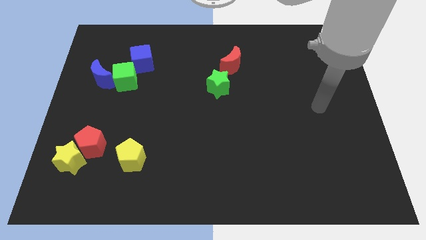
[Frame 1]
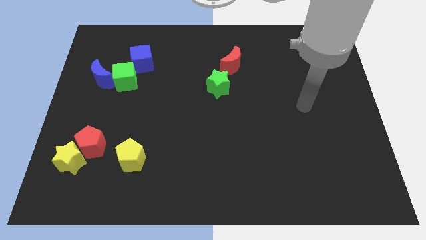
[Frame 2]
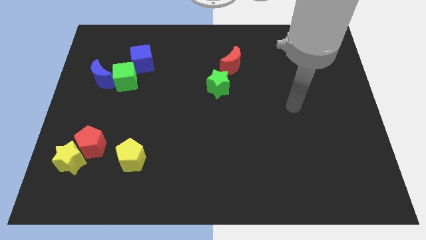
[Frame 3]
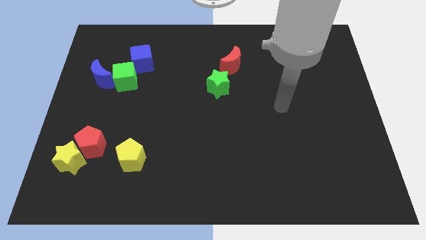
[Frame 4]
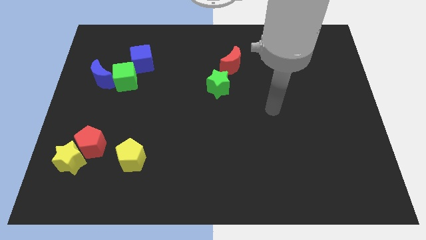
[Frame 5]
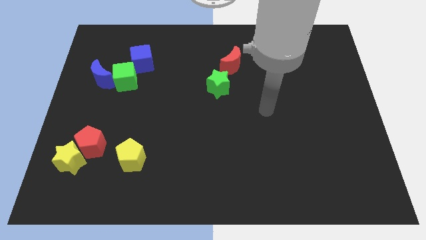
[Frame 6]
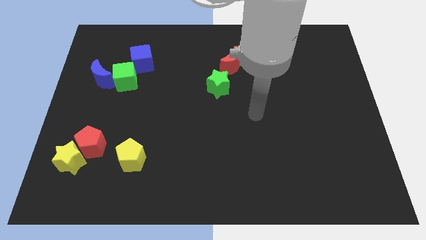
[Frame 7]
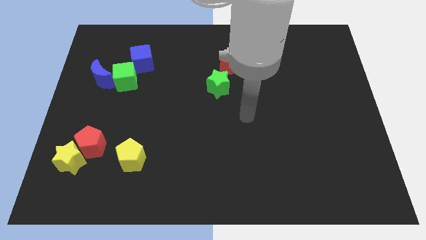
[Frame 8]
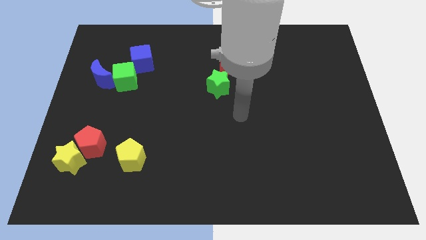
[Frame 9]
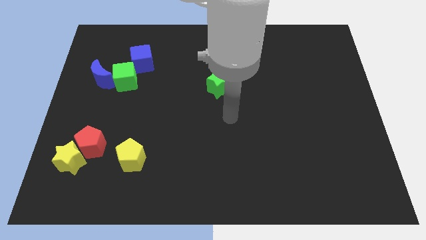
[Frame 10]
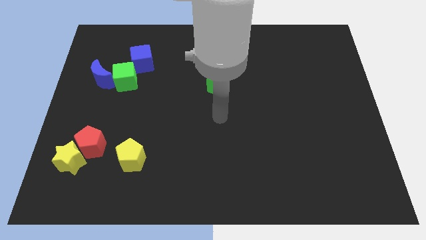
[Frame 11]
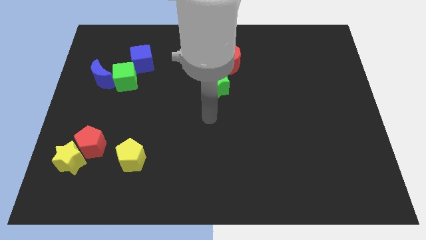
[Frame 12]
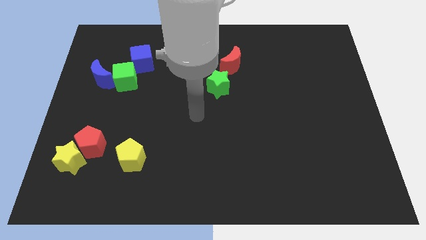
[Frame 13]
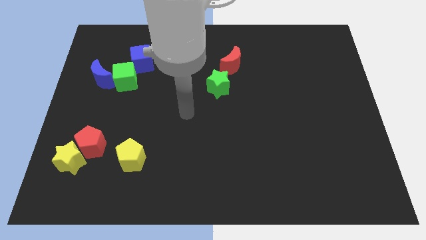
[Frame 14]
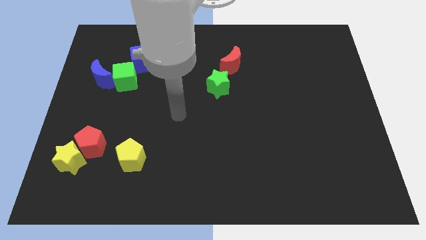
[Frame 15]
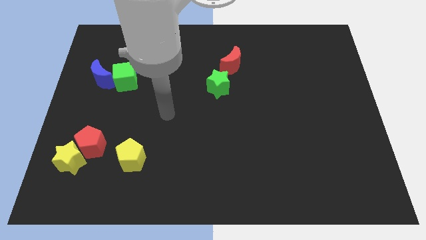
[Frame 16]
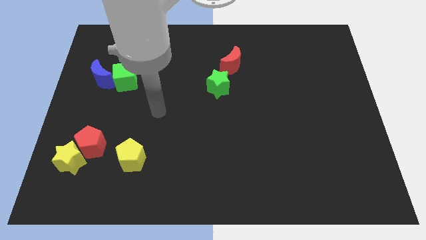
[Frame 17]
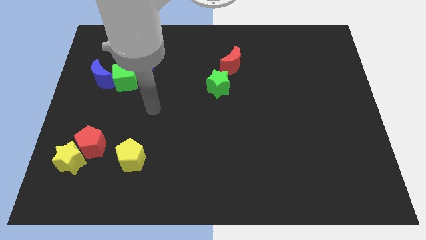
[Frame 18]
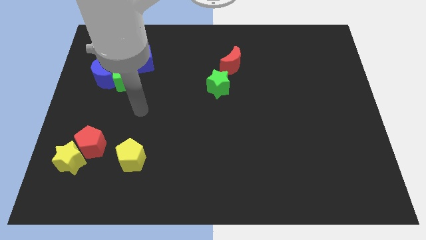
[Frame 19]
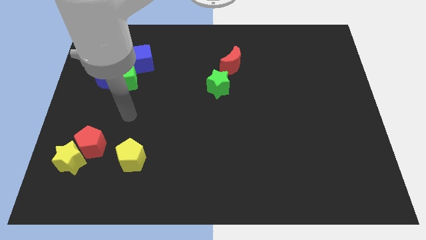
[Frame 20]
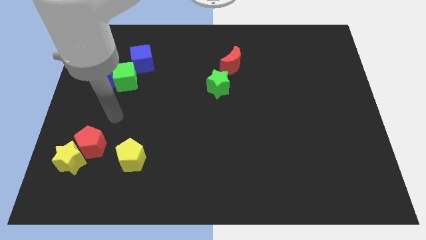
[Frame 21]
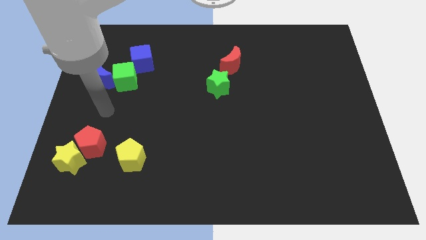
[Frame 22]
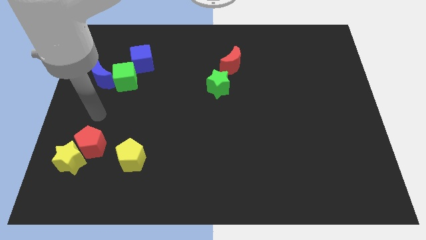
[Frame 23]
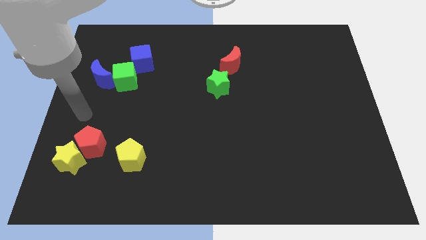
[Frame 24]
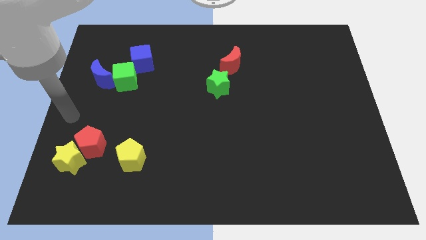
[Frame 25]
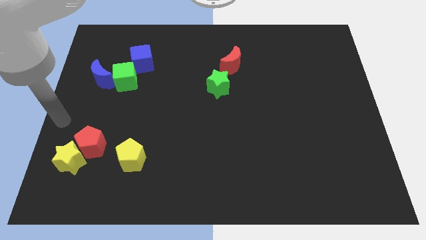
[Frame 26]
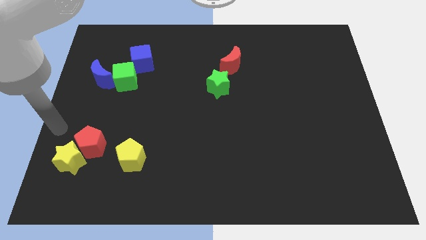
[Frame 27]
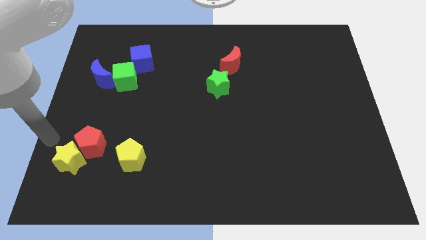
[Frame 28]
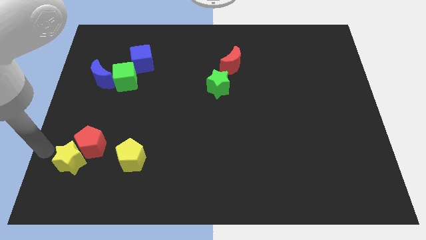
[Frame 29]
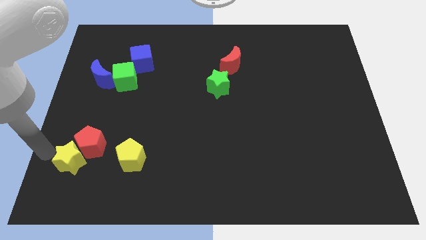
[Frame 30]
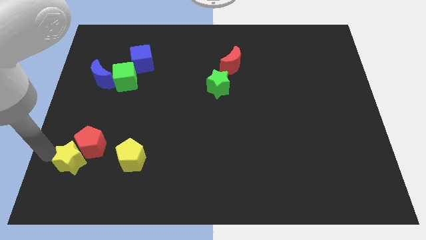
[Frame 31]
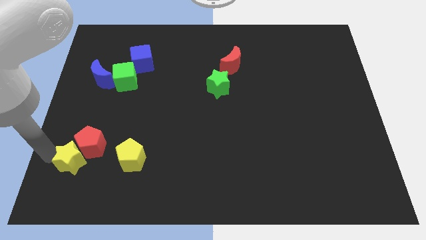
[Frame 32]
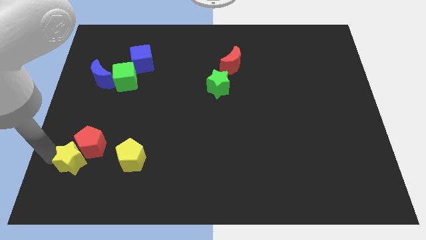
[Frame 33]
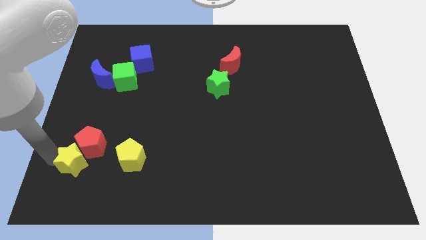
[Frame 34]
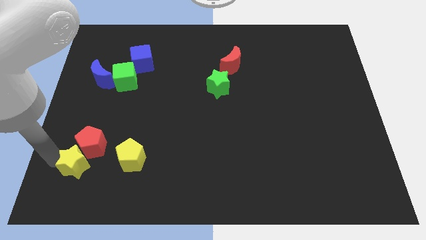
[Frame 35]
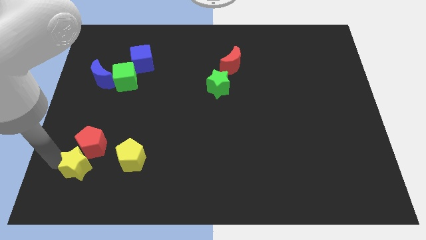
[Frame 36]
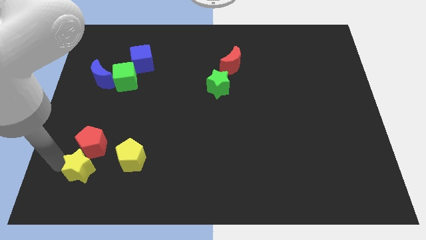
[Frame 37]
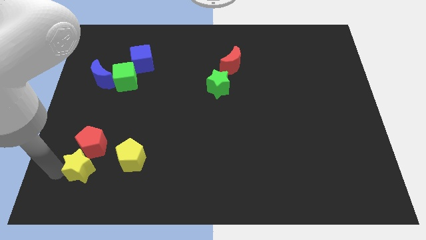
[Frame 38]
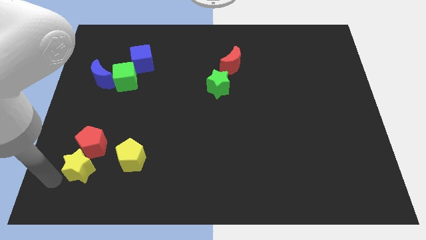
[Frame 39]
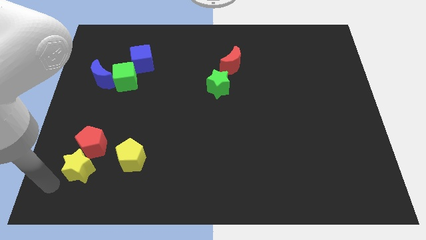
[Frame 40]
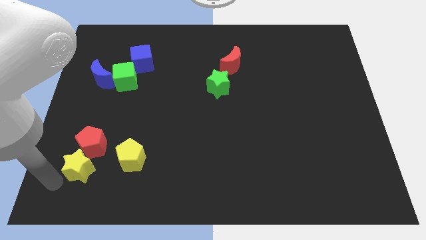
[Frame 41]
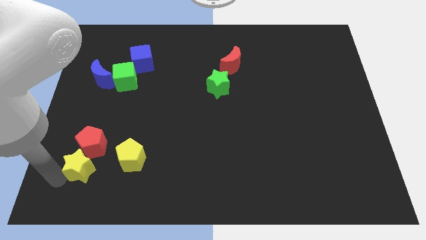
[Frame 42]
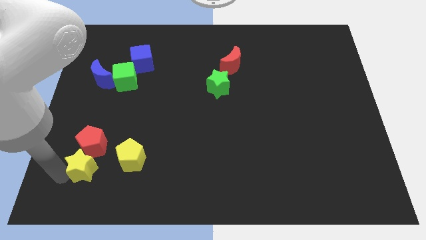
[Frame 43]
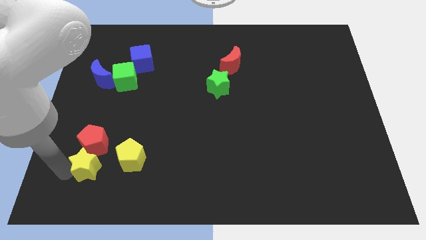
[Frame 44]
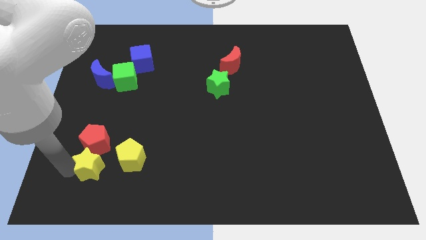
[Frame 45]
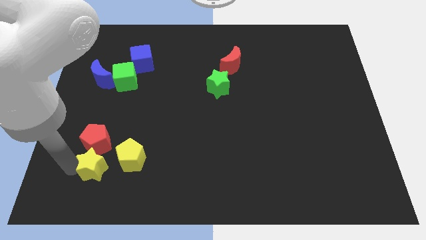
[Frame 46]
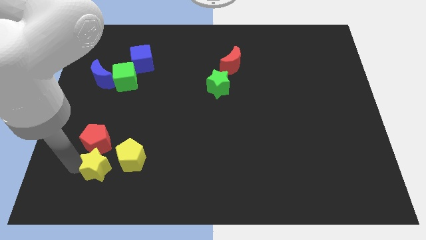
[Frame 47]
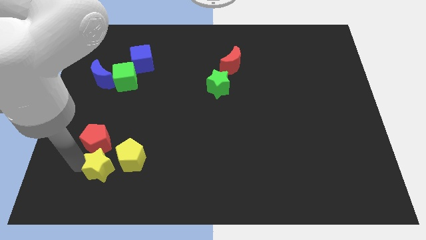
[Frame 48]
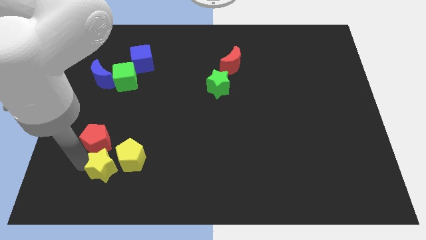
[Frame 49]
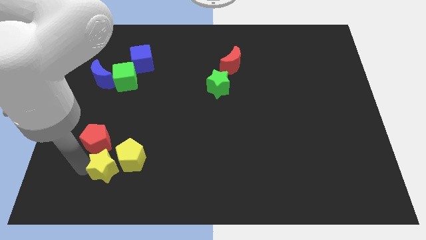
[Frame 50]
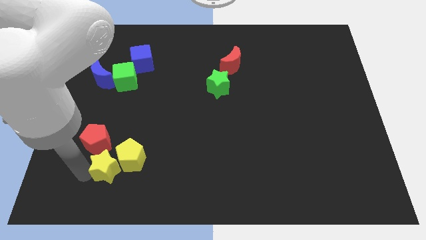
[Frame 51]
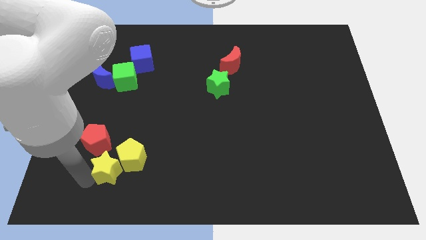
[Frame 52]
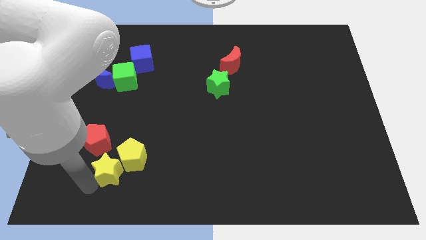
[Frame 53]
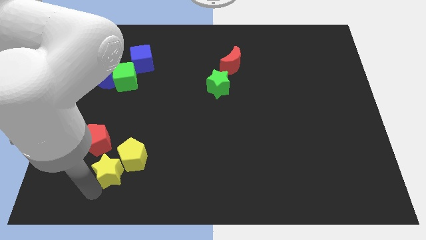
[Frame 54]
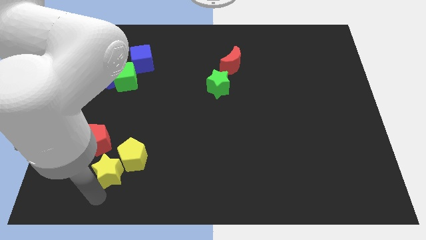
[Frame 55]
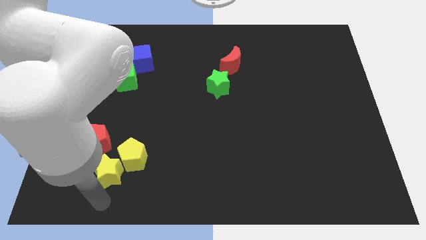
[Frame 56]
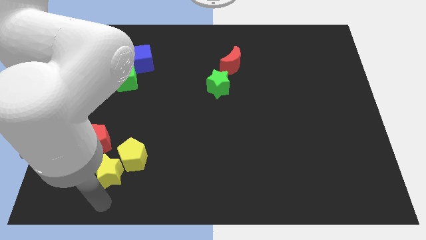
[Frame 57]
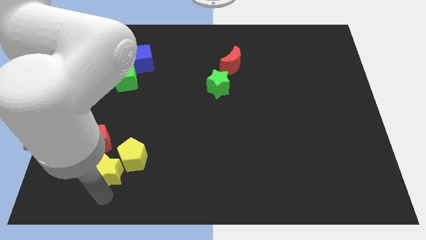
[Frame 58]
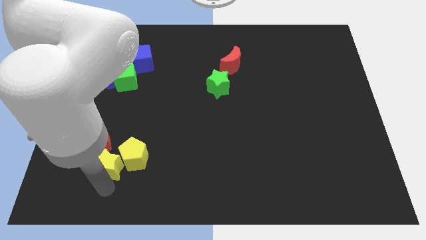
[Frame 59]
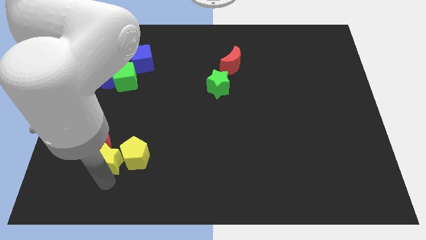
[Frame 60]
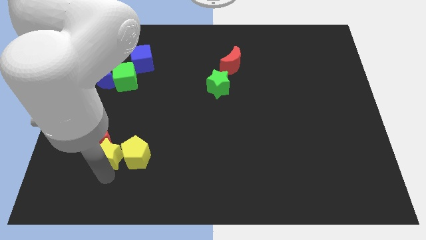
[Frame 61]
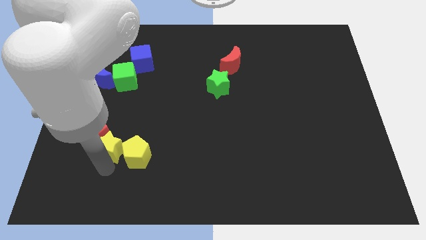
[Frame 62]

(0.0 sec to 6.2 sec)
slightly slide the yellow star up and to the right diagonally

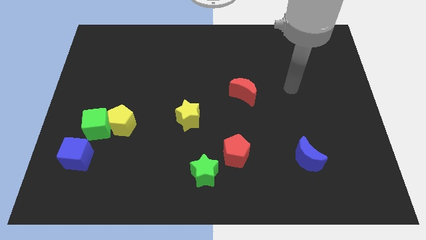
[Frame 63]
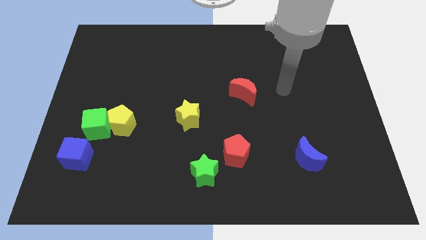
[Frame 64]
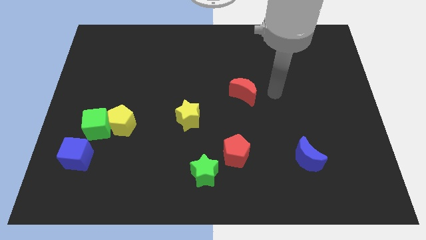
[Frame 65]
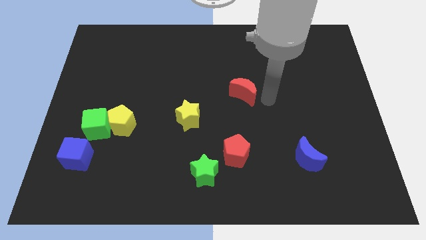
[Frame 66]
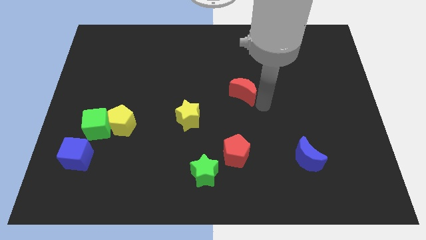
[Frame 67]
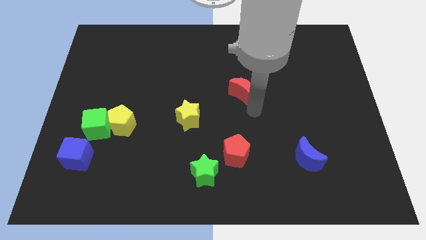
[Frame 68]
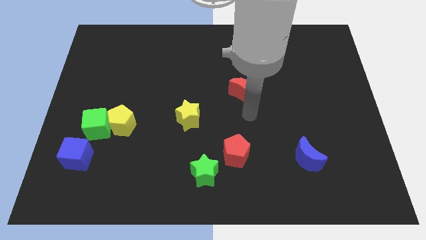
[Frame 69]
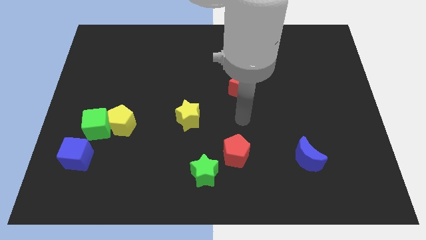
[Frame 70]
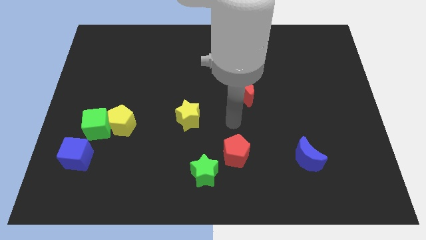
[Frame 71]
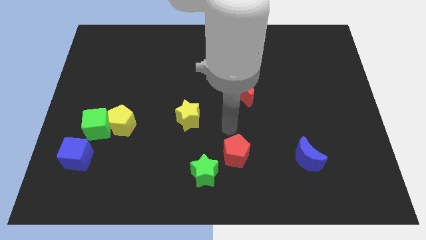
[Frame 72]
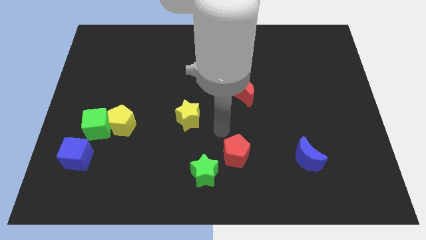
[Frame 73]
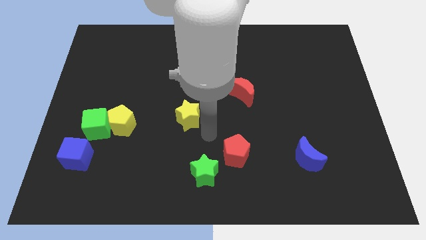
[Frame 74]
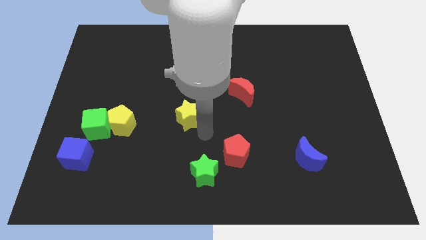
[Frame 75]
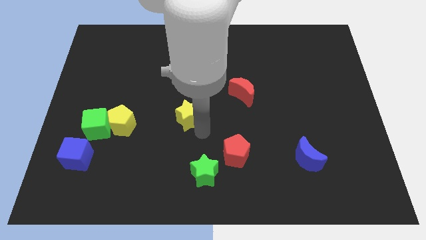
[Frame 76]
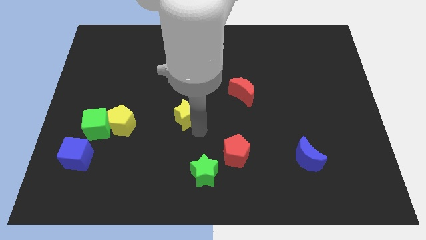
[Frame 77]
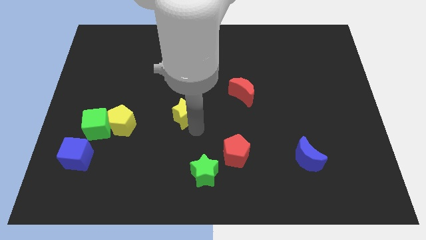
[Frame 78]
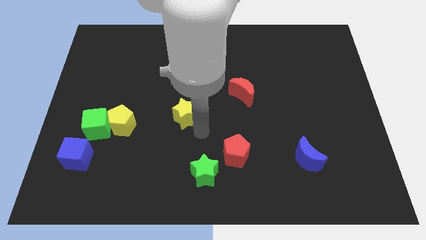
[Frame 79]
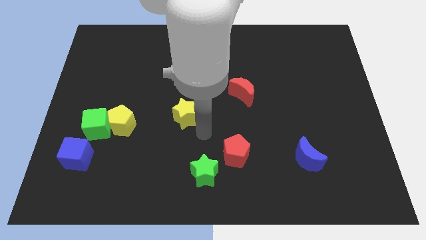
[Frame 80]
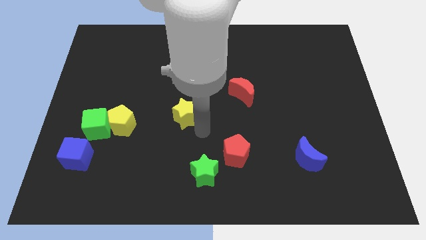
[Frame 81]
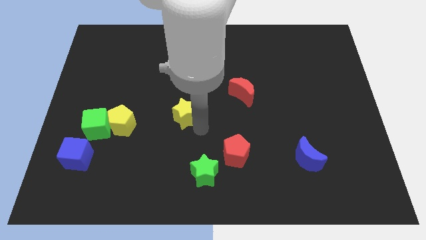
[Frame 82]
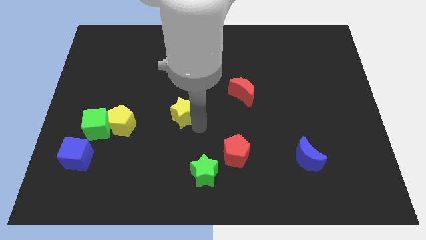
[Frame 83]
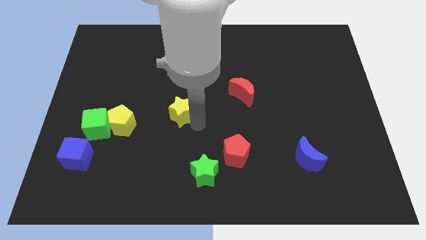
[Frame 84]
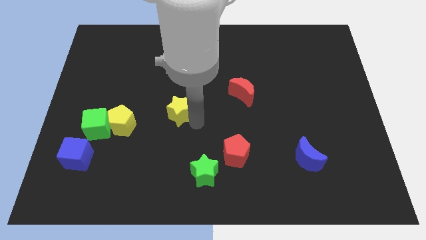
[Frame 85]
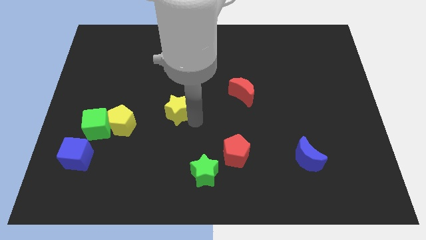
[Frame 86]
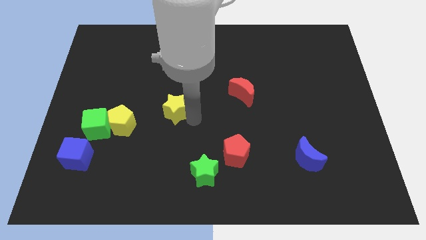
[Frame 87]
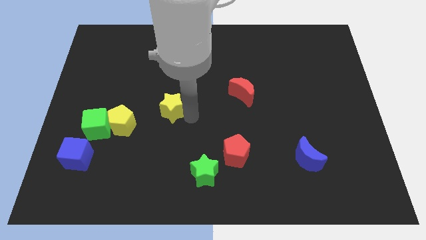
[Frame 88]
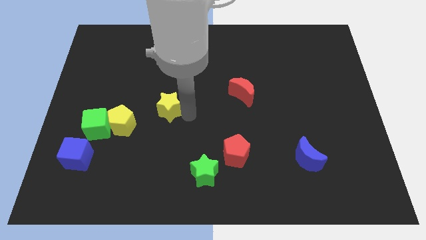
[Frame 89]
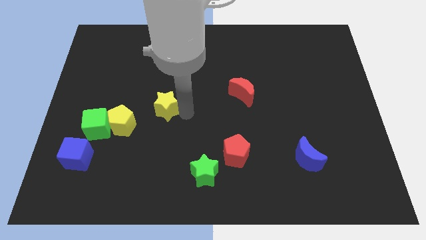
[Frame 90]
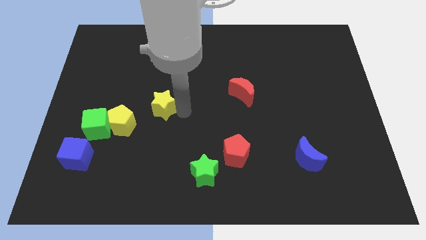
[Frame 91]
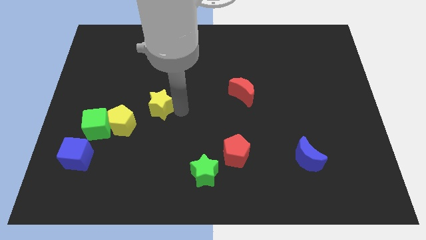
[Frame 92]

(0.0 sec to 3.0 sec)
move the yellow star upwards and then left a little bit
